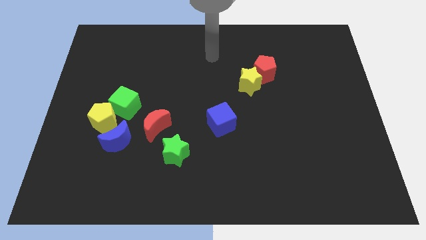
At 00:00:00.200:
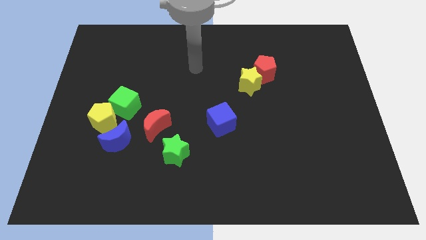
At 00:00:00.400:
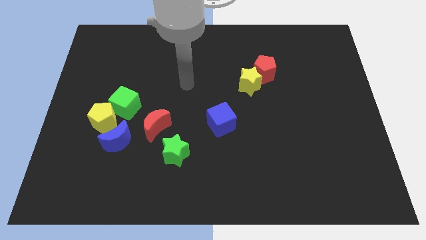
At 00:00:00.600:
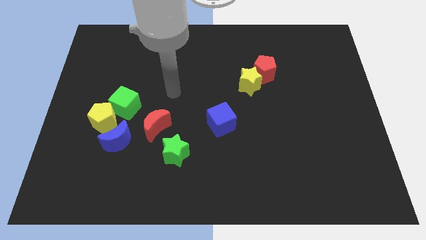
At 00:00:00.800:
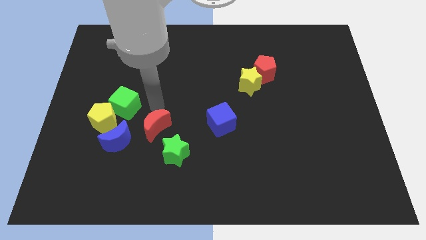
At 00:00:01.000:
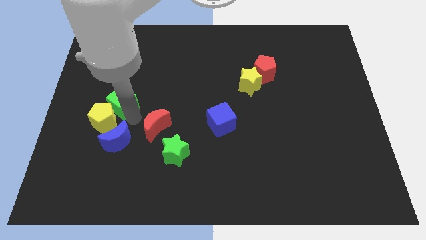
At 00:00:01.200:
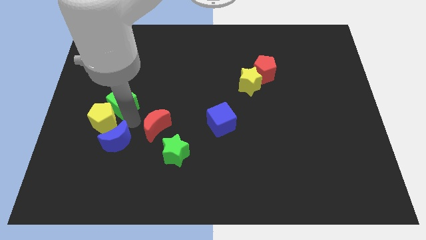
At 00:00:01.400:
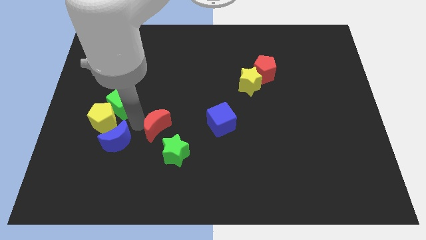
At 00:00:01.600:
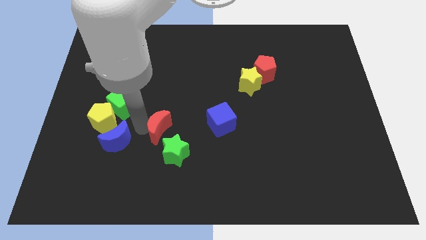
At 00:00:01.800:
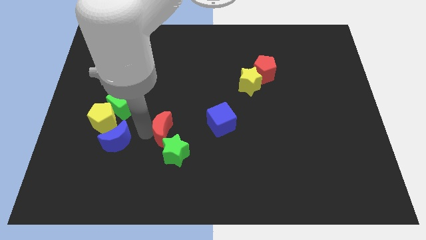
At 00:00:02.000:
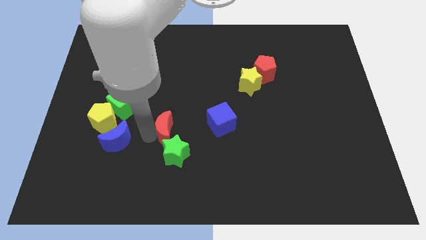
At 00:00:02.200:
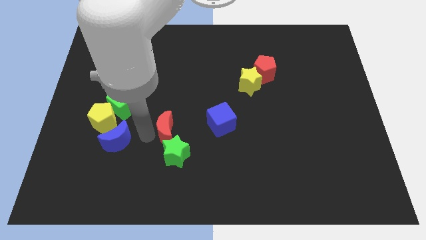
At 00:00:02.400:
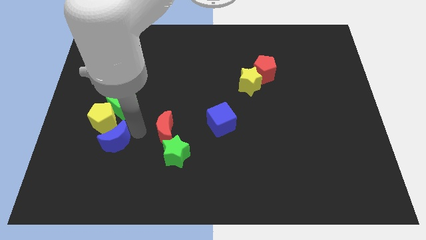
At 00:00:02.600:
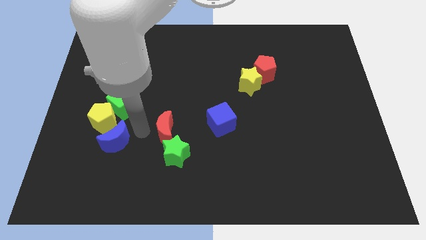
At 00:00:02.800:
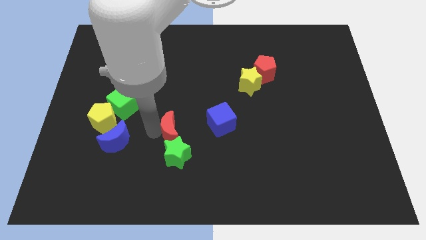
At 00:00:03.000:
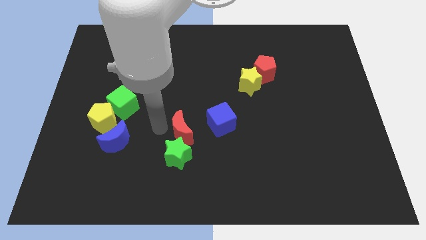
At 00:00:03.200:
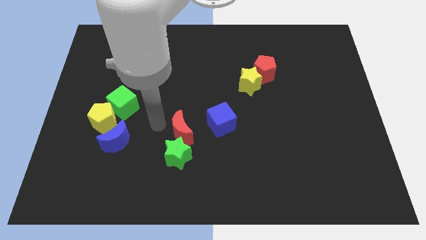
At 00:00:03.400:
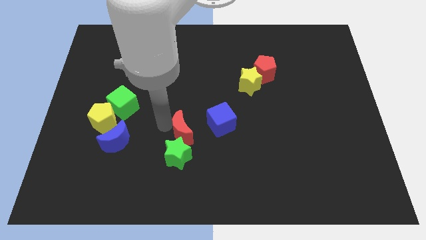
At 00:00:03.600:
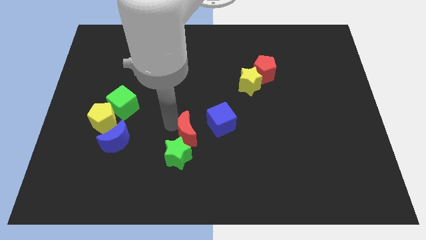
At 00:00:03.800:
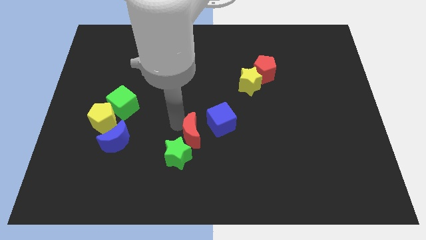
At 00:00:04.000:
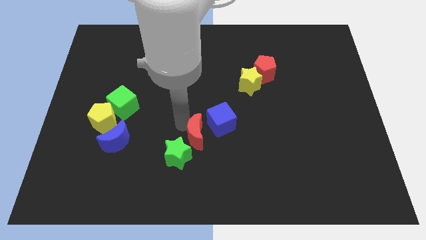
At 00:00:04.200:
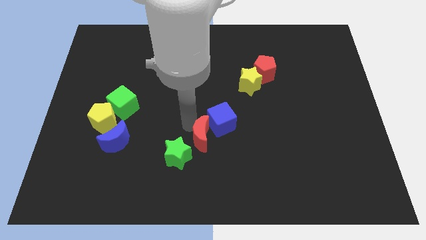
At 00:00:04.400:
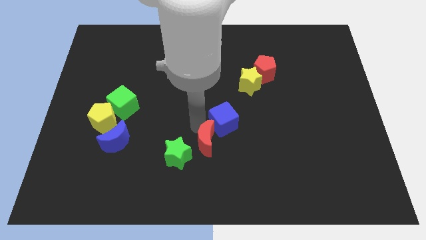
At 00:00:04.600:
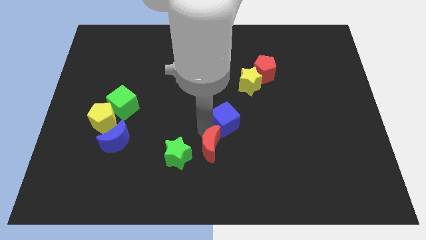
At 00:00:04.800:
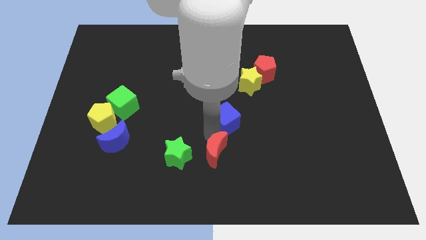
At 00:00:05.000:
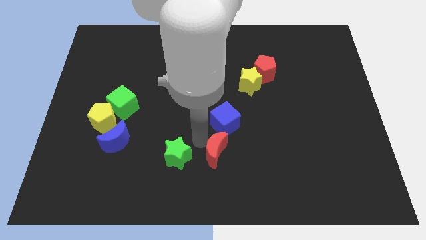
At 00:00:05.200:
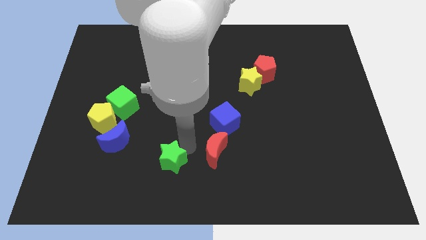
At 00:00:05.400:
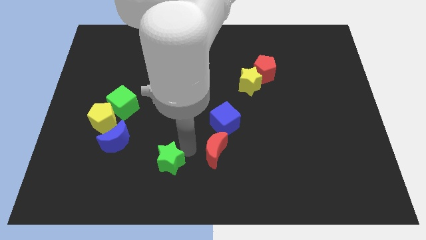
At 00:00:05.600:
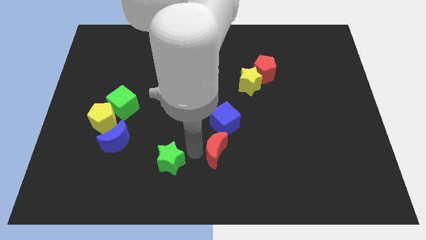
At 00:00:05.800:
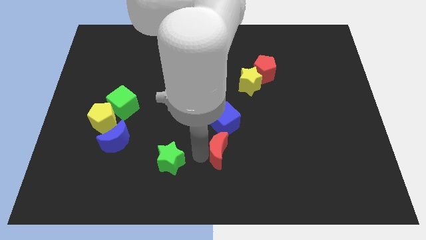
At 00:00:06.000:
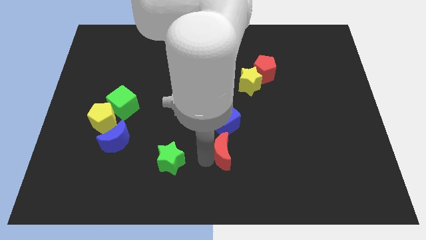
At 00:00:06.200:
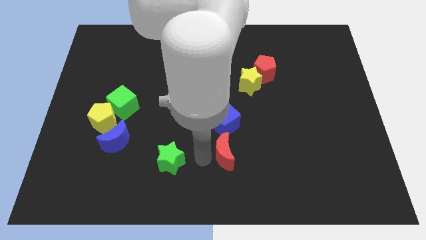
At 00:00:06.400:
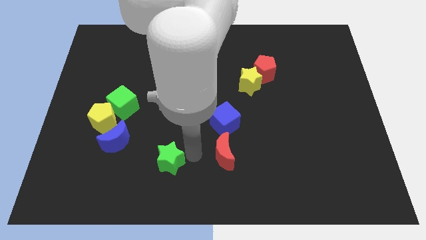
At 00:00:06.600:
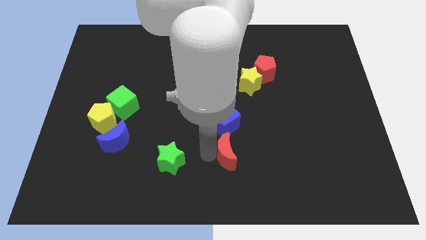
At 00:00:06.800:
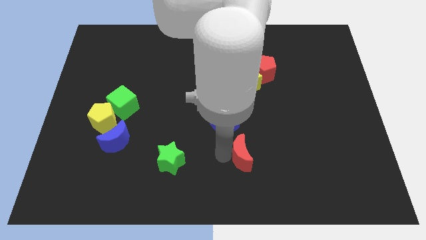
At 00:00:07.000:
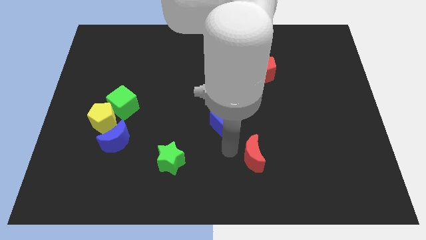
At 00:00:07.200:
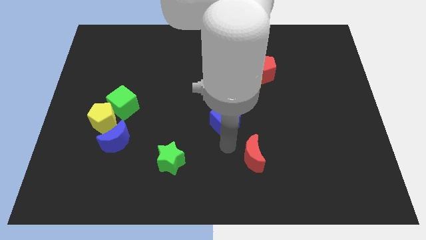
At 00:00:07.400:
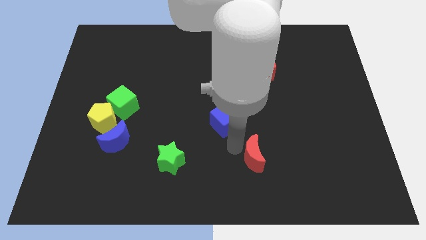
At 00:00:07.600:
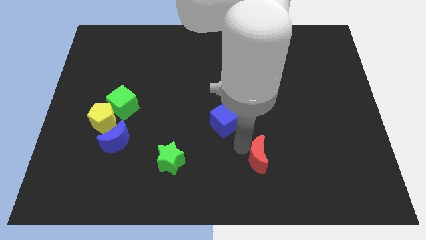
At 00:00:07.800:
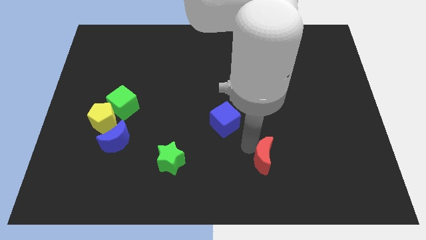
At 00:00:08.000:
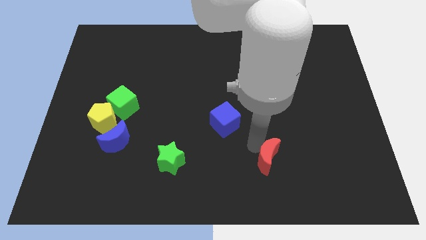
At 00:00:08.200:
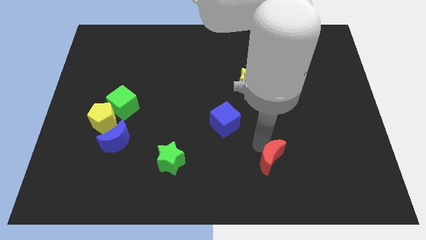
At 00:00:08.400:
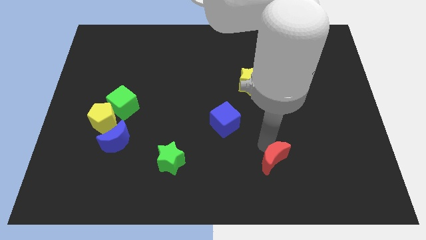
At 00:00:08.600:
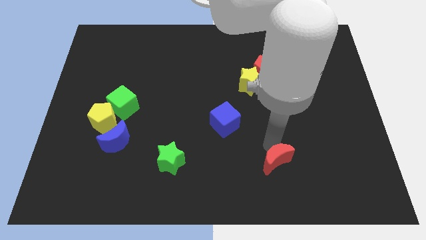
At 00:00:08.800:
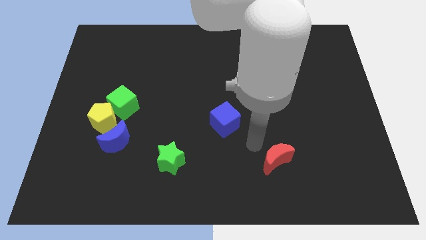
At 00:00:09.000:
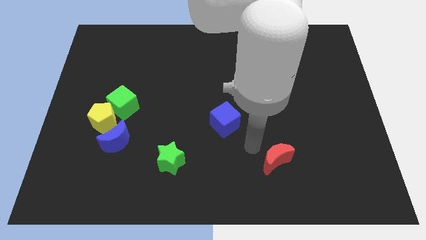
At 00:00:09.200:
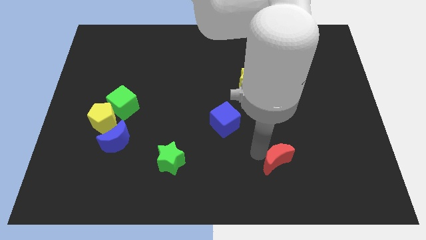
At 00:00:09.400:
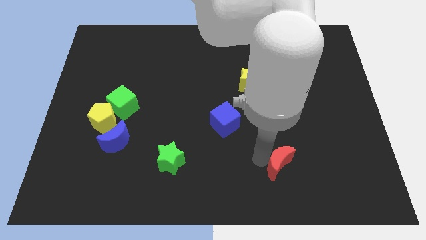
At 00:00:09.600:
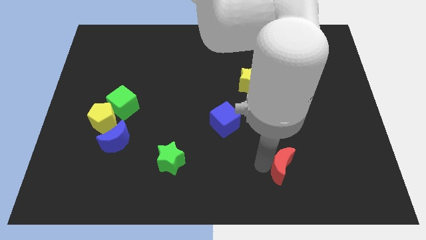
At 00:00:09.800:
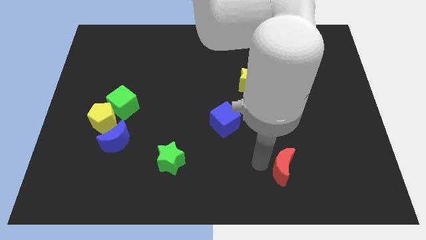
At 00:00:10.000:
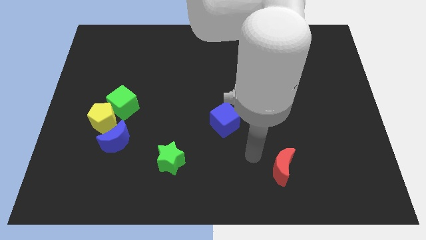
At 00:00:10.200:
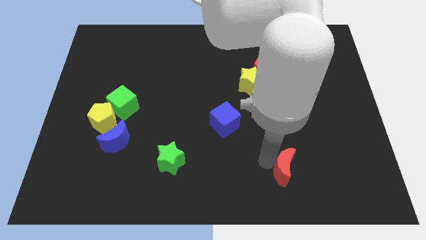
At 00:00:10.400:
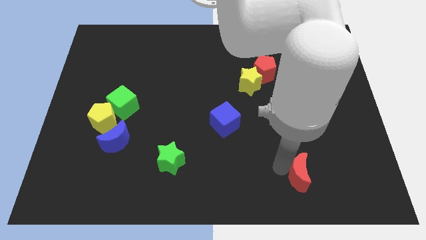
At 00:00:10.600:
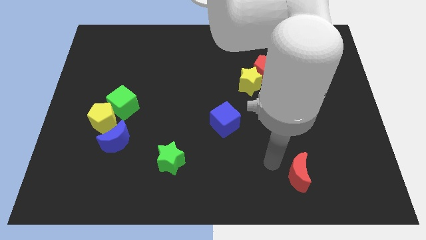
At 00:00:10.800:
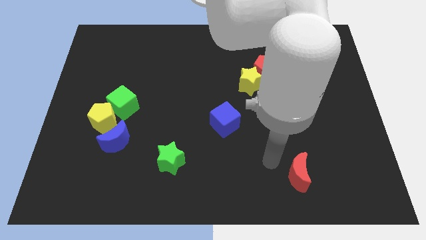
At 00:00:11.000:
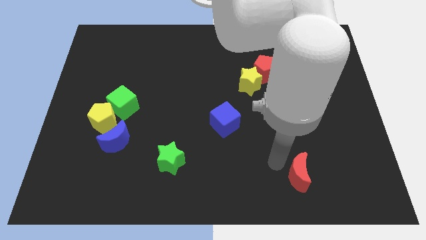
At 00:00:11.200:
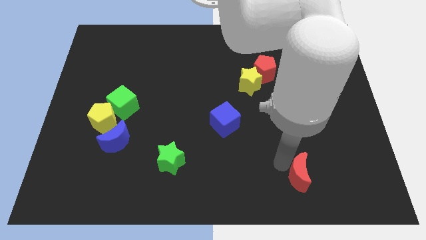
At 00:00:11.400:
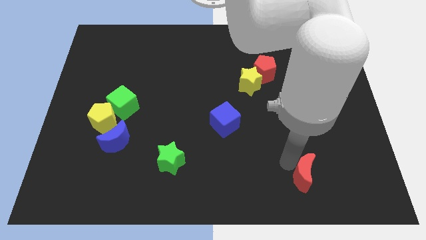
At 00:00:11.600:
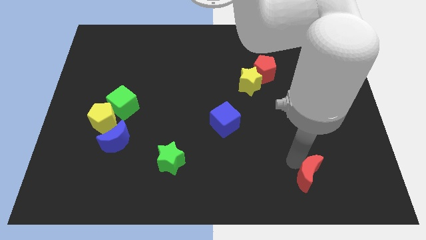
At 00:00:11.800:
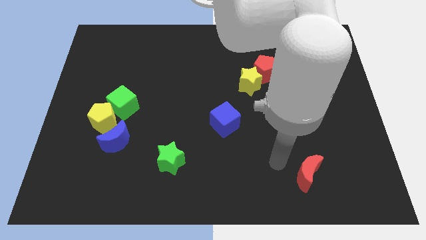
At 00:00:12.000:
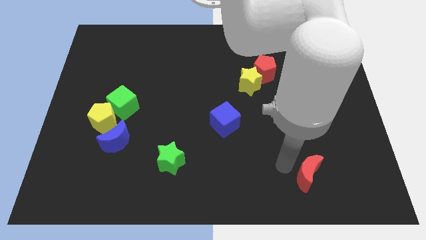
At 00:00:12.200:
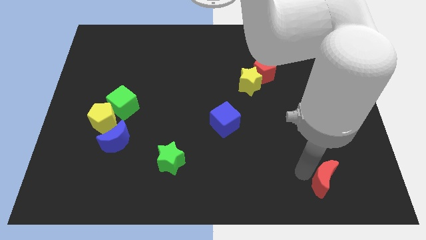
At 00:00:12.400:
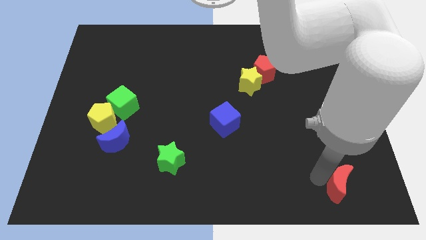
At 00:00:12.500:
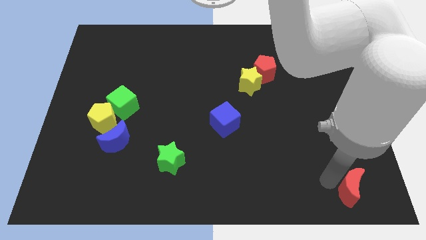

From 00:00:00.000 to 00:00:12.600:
push the red moon to the bottom right of the board

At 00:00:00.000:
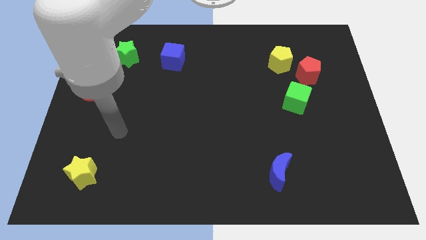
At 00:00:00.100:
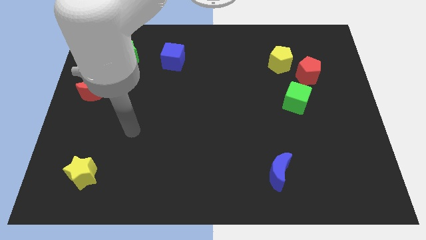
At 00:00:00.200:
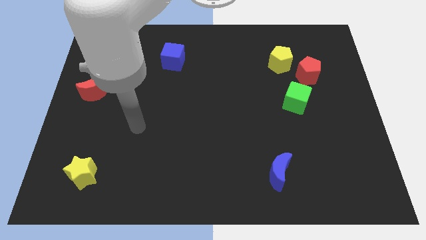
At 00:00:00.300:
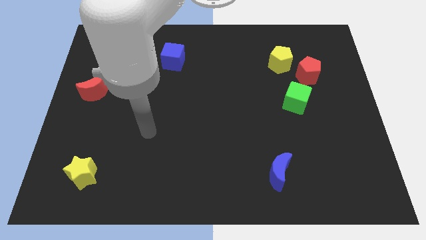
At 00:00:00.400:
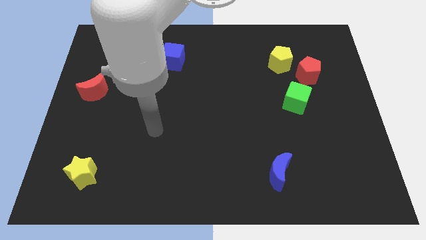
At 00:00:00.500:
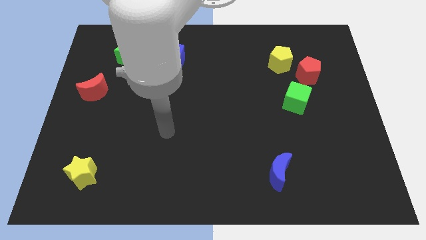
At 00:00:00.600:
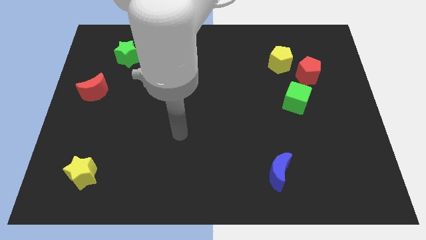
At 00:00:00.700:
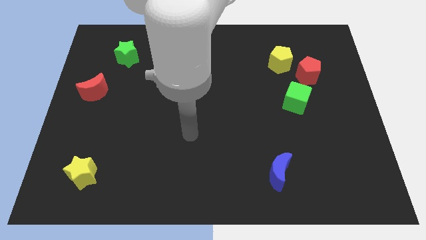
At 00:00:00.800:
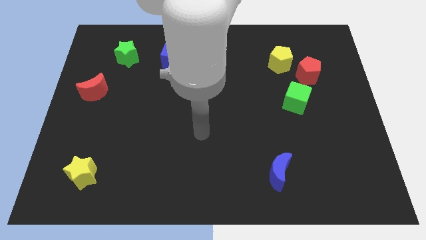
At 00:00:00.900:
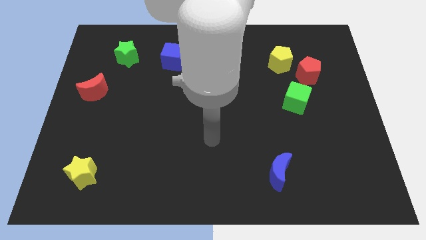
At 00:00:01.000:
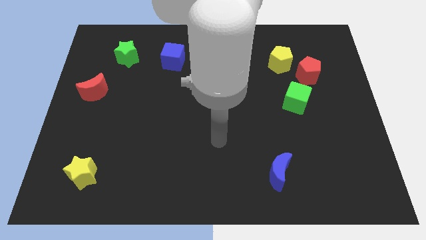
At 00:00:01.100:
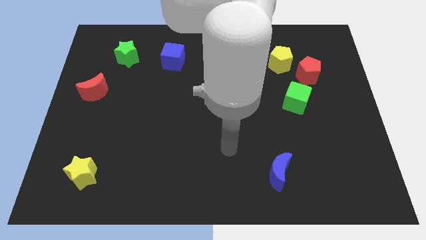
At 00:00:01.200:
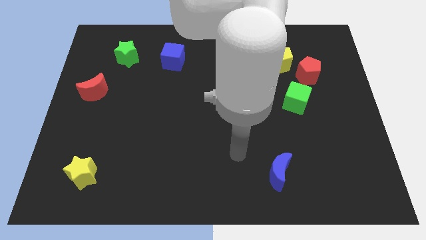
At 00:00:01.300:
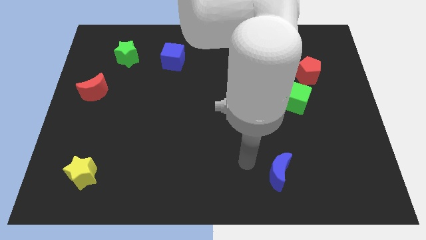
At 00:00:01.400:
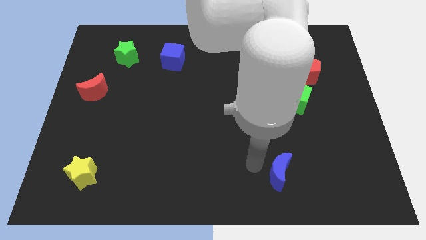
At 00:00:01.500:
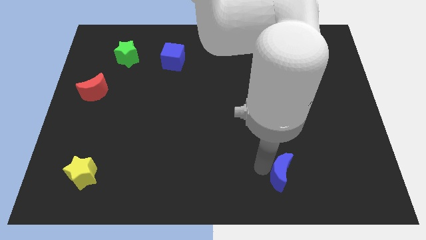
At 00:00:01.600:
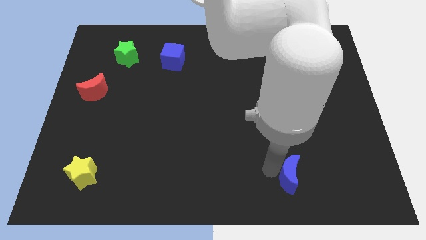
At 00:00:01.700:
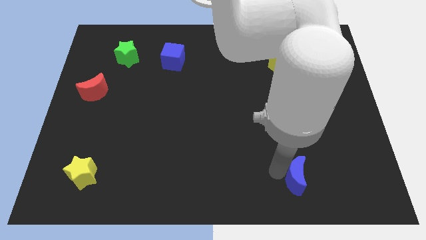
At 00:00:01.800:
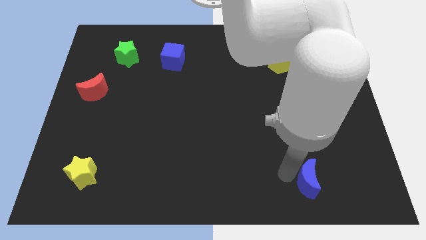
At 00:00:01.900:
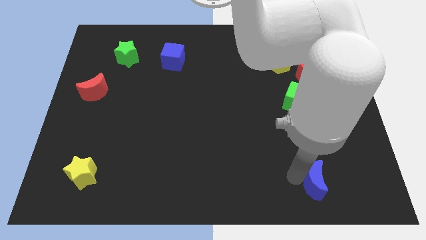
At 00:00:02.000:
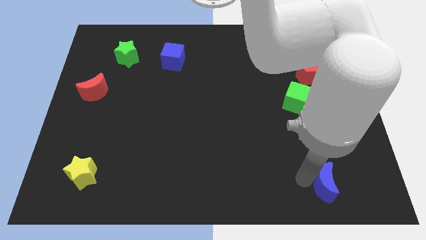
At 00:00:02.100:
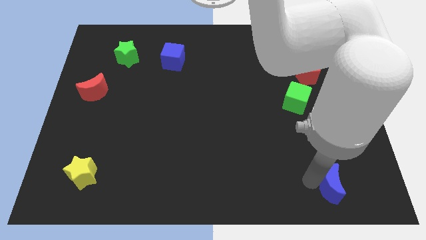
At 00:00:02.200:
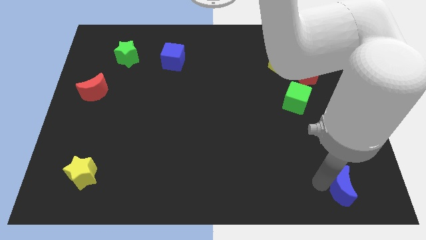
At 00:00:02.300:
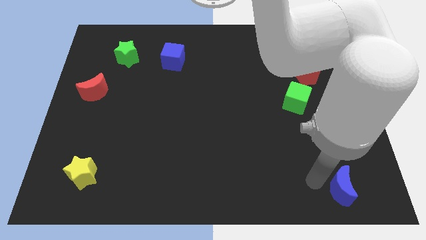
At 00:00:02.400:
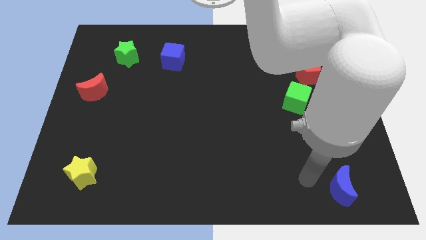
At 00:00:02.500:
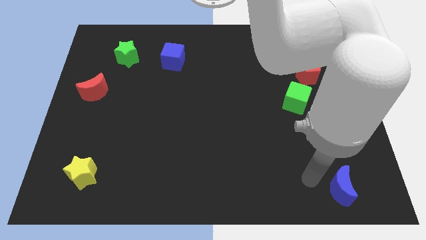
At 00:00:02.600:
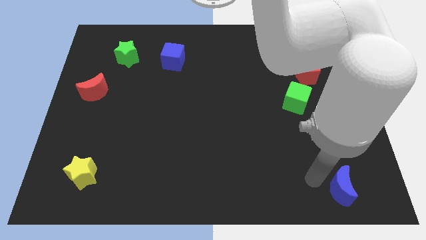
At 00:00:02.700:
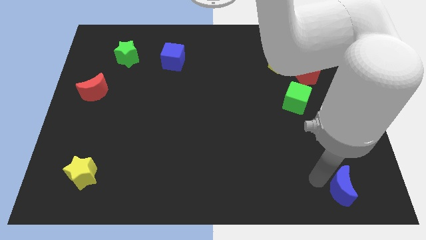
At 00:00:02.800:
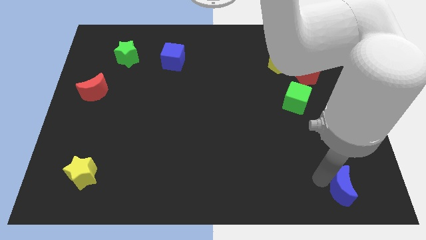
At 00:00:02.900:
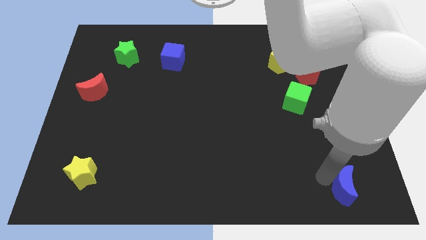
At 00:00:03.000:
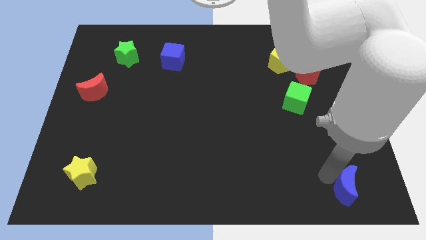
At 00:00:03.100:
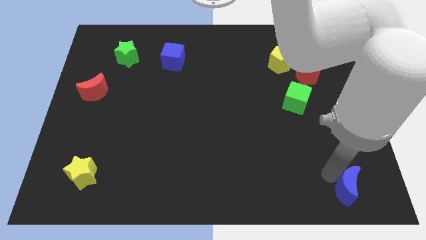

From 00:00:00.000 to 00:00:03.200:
put the blue moon to the bottom right
